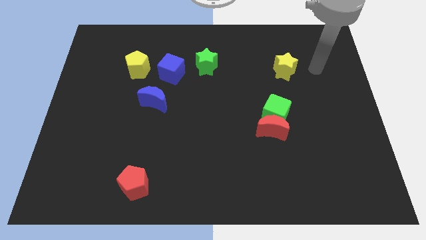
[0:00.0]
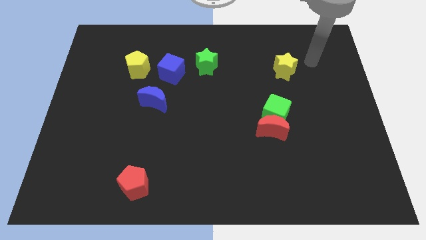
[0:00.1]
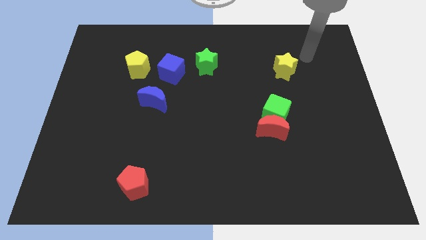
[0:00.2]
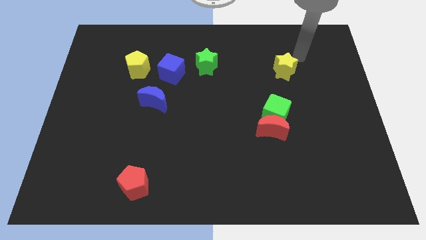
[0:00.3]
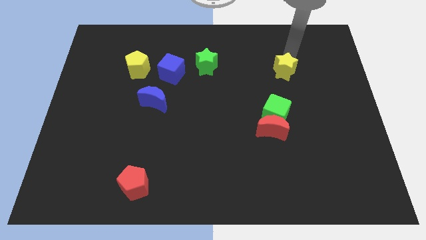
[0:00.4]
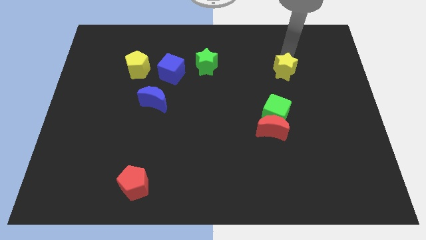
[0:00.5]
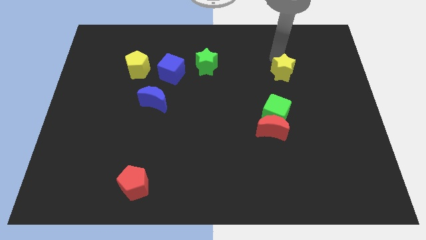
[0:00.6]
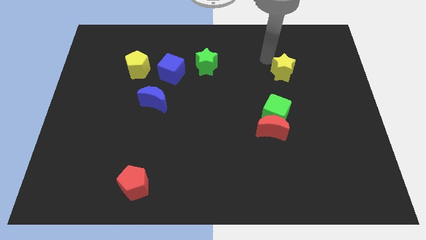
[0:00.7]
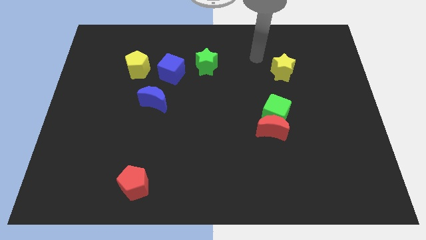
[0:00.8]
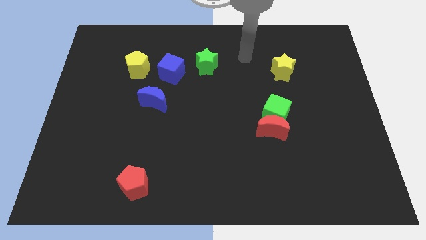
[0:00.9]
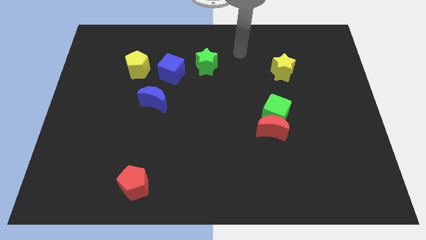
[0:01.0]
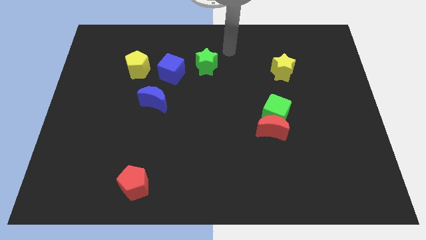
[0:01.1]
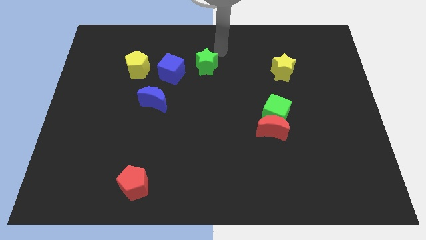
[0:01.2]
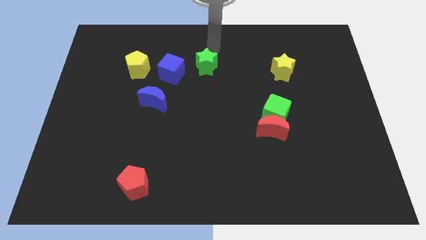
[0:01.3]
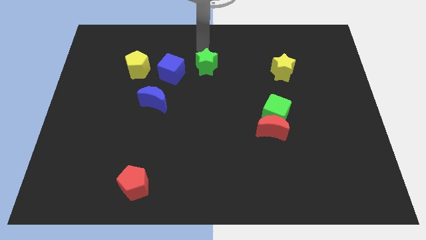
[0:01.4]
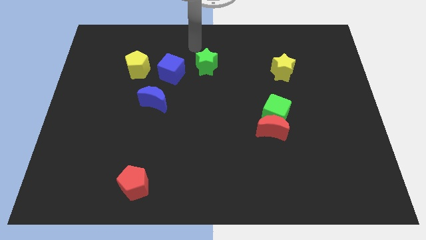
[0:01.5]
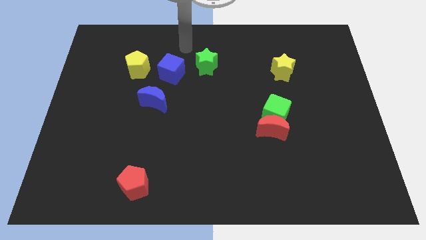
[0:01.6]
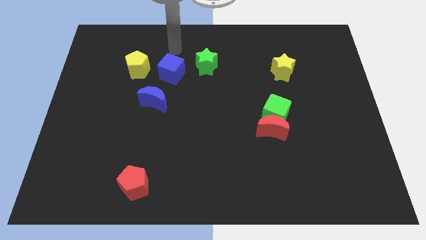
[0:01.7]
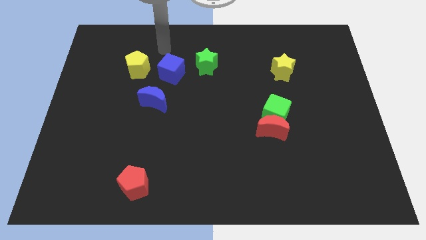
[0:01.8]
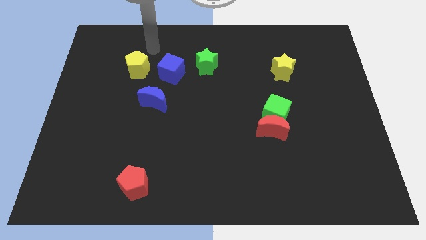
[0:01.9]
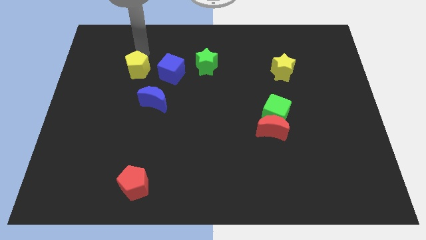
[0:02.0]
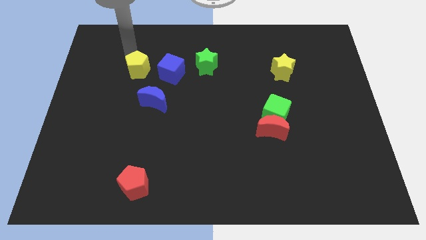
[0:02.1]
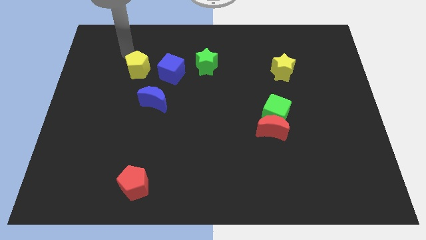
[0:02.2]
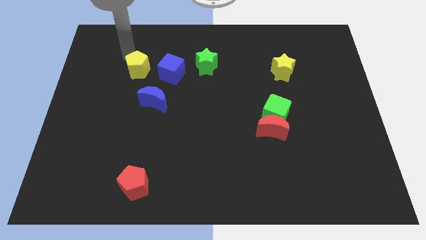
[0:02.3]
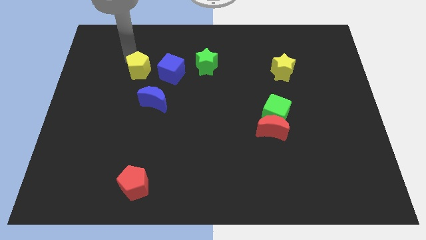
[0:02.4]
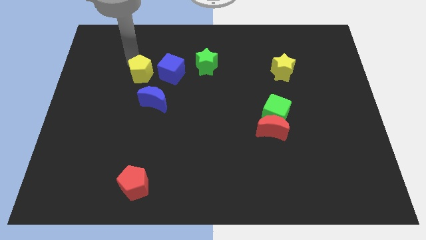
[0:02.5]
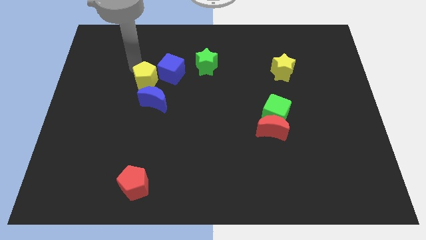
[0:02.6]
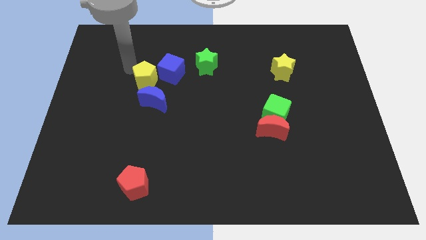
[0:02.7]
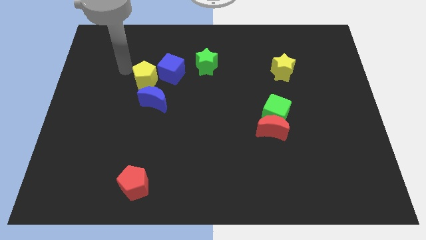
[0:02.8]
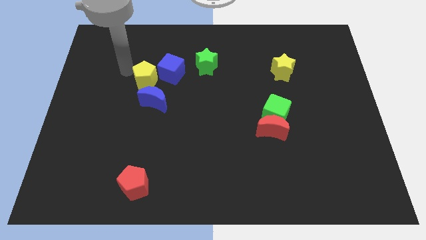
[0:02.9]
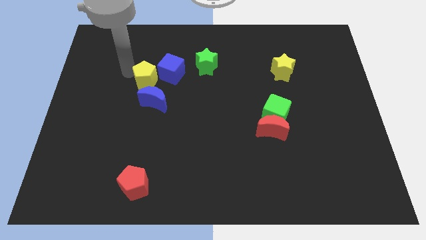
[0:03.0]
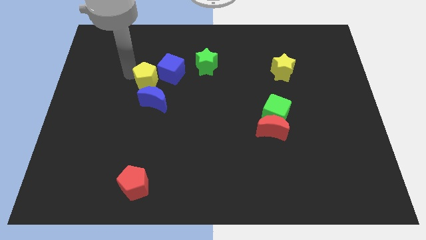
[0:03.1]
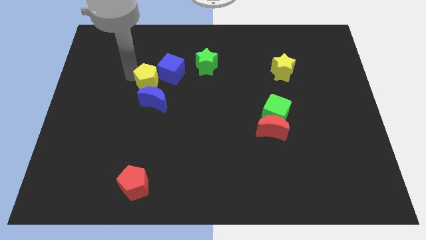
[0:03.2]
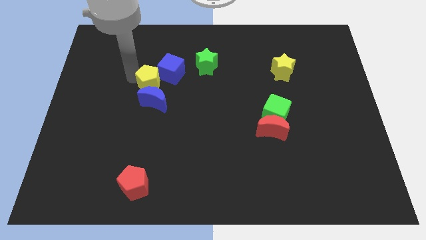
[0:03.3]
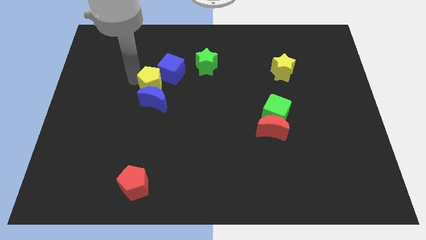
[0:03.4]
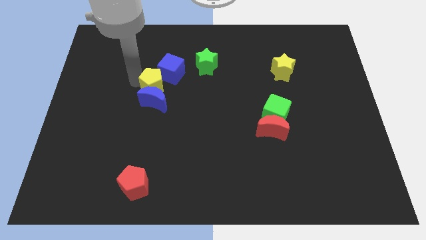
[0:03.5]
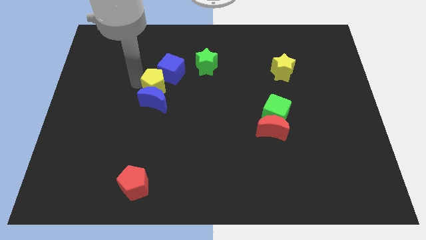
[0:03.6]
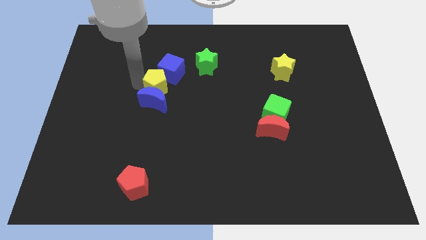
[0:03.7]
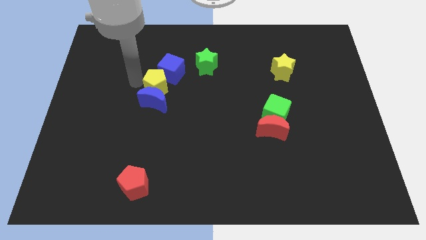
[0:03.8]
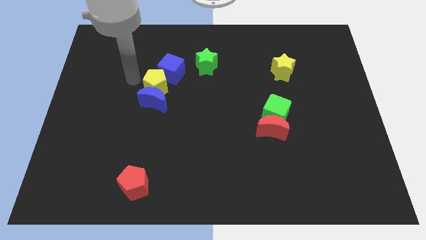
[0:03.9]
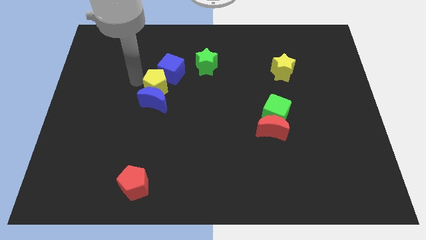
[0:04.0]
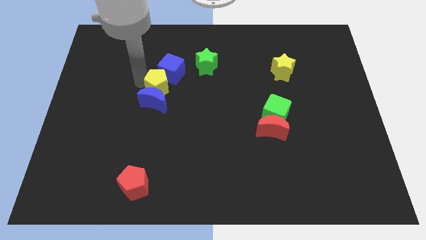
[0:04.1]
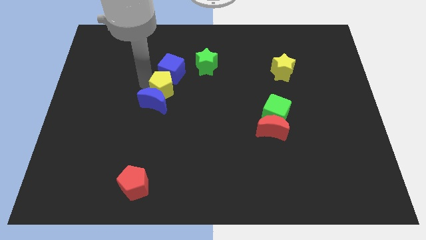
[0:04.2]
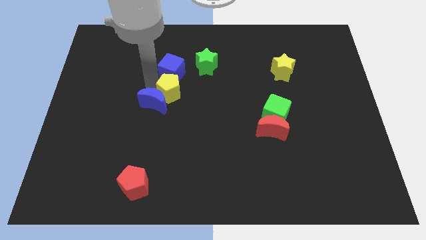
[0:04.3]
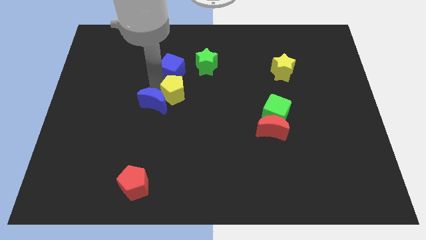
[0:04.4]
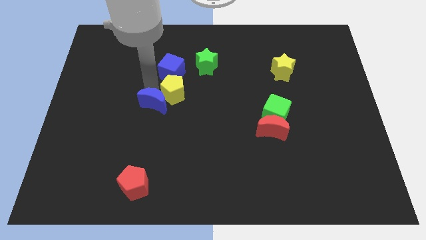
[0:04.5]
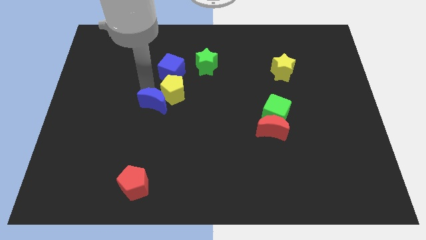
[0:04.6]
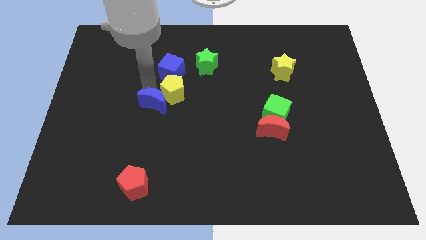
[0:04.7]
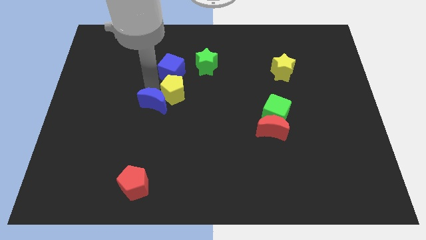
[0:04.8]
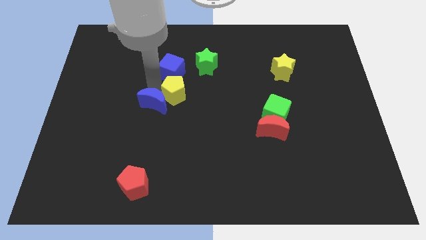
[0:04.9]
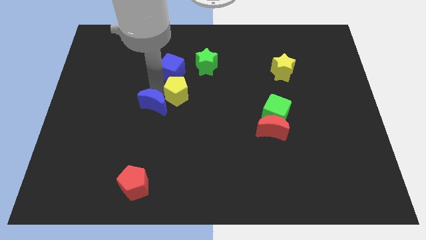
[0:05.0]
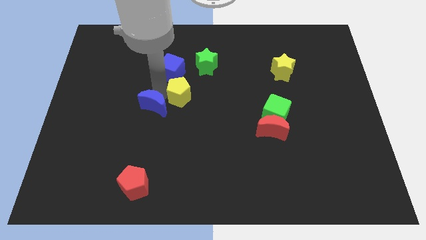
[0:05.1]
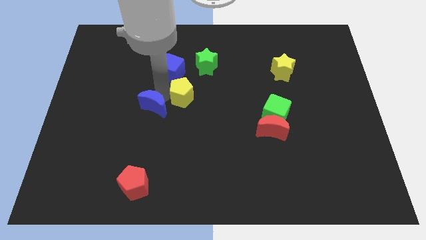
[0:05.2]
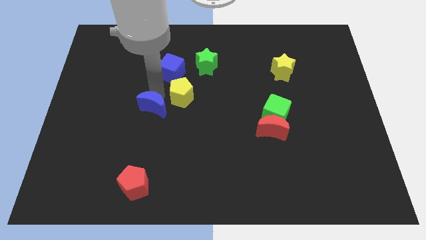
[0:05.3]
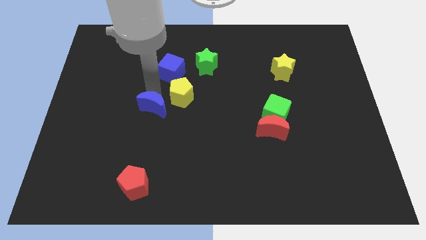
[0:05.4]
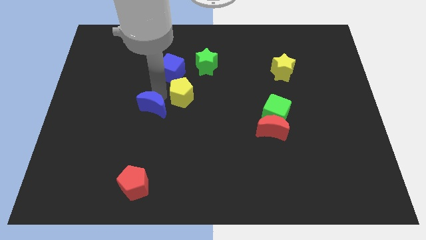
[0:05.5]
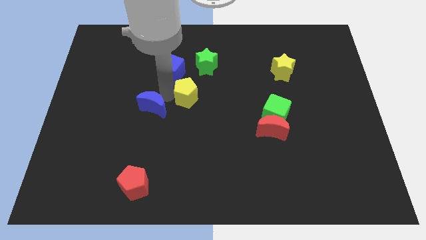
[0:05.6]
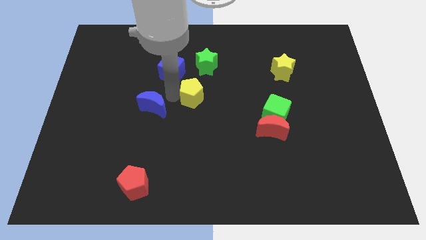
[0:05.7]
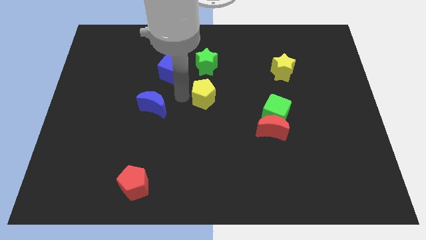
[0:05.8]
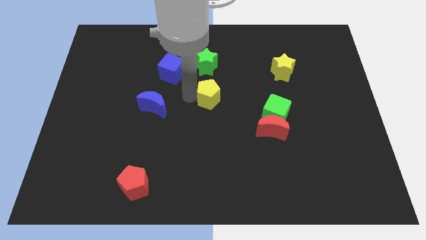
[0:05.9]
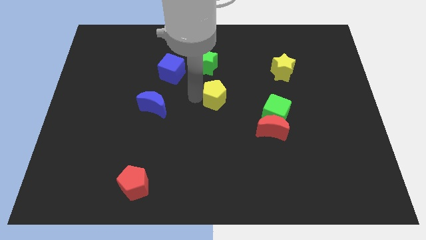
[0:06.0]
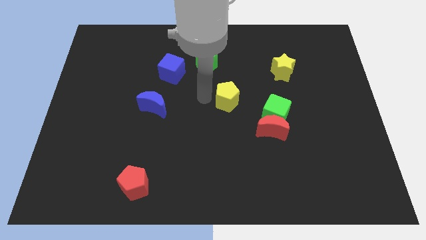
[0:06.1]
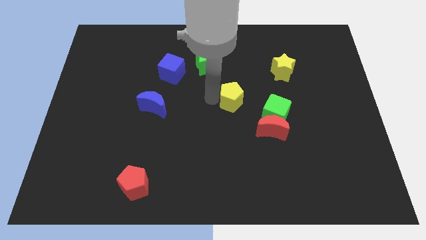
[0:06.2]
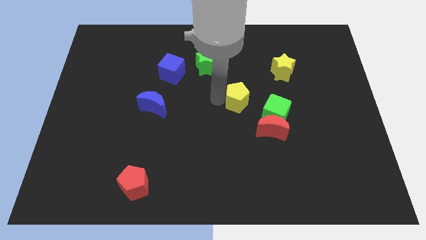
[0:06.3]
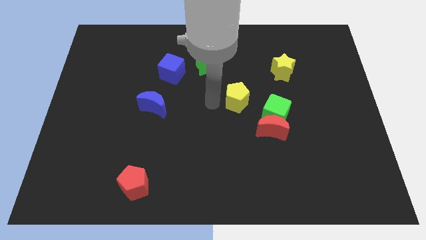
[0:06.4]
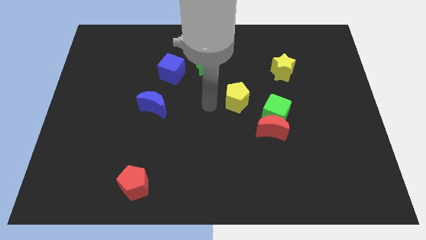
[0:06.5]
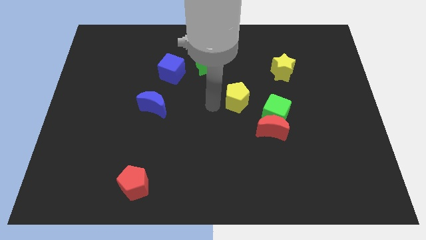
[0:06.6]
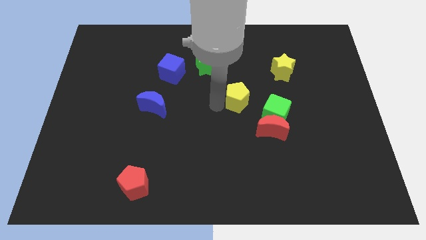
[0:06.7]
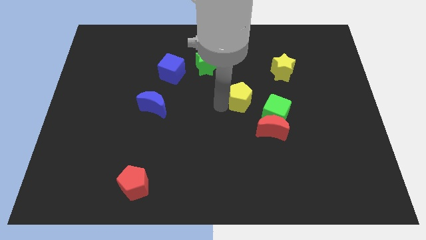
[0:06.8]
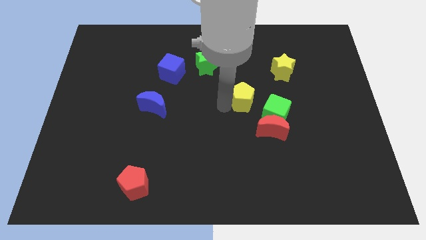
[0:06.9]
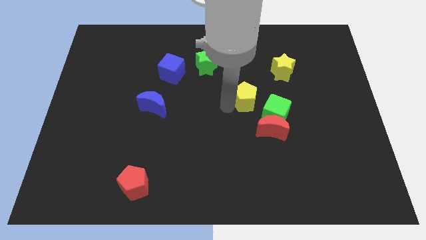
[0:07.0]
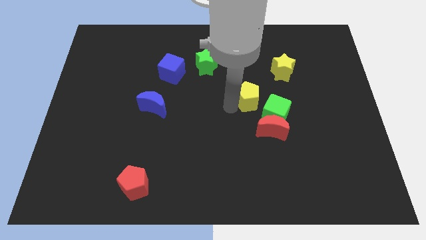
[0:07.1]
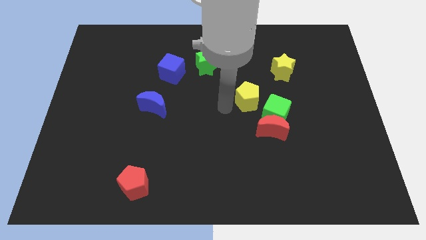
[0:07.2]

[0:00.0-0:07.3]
put the yellow pentagon to the top side of the red moon
